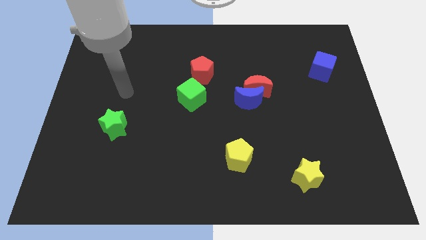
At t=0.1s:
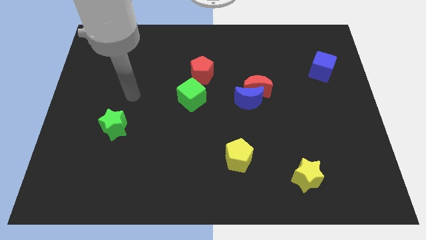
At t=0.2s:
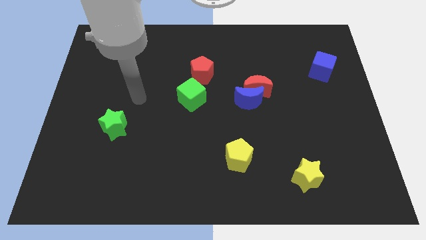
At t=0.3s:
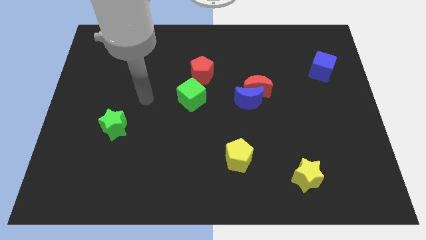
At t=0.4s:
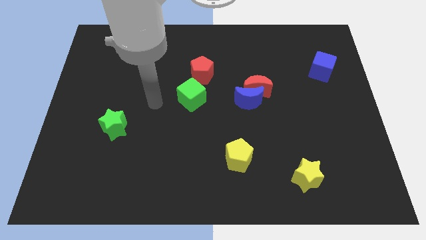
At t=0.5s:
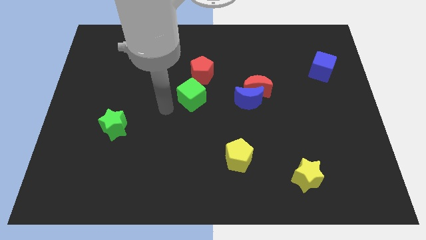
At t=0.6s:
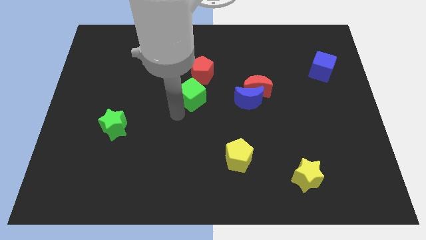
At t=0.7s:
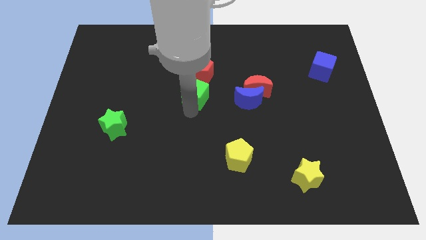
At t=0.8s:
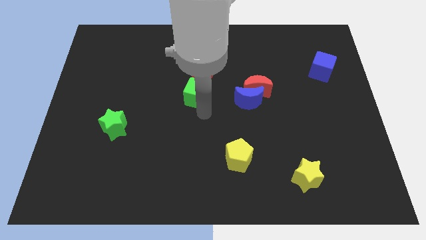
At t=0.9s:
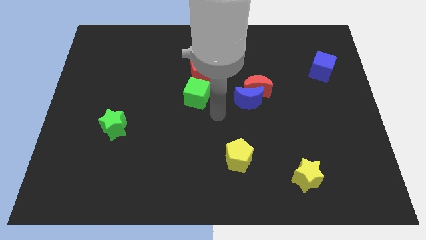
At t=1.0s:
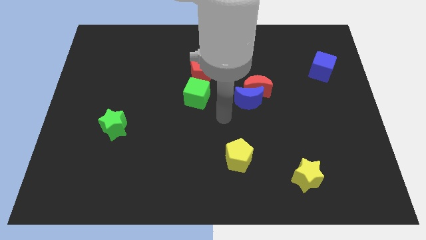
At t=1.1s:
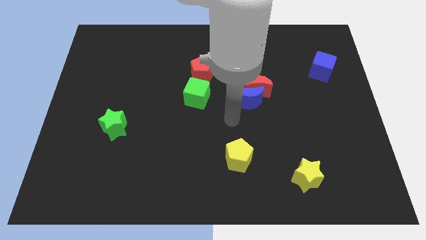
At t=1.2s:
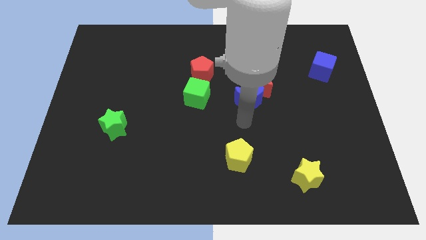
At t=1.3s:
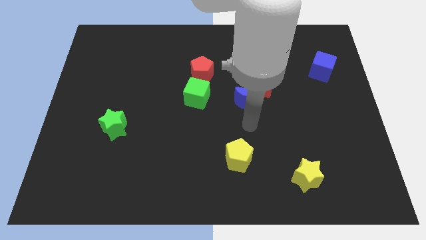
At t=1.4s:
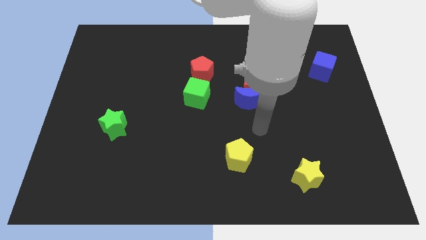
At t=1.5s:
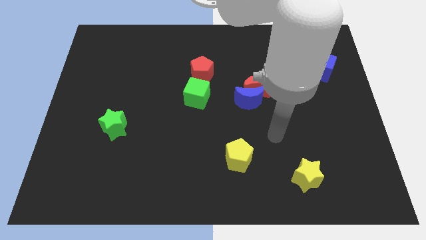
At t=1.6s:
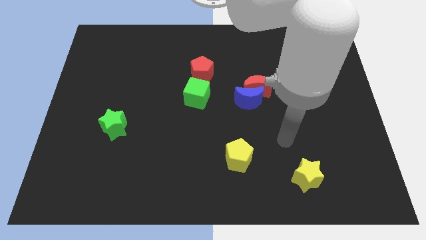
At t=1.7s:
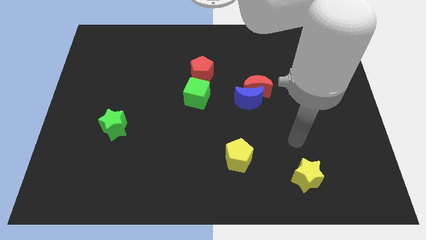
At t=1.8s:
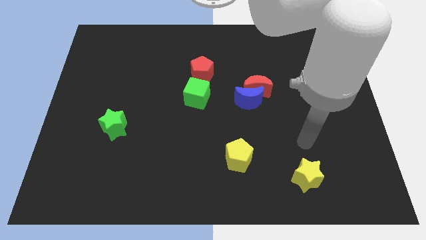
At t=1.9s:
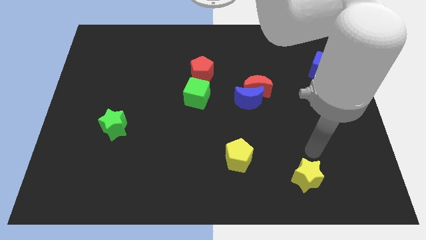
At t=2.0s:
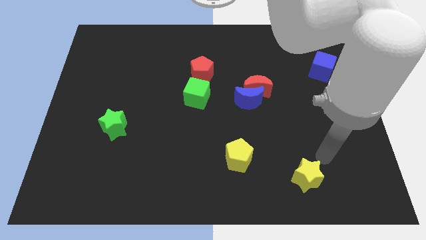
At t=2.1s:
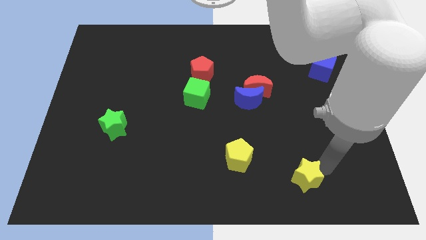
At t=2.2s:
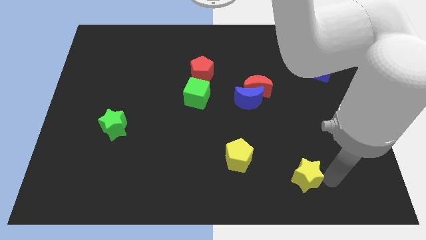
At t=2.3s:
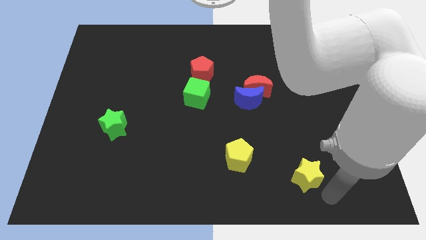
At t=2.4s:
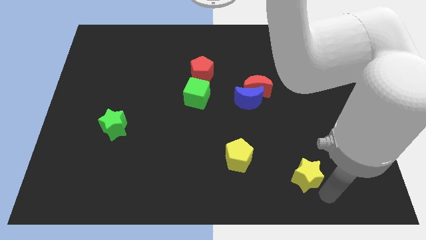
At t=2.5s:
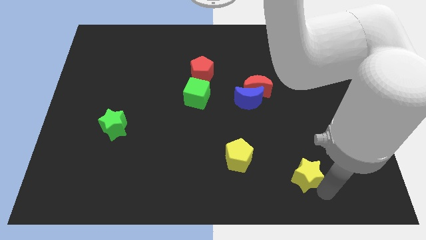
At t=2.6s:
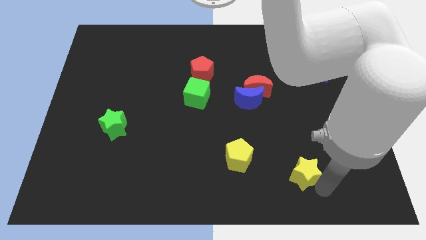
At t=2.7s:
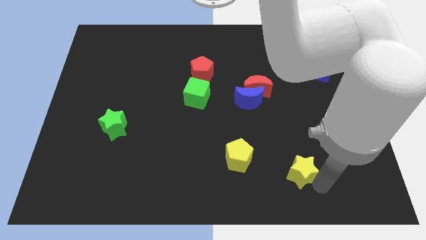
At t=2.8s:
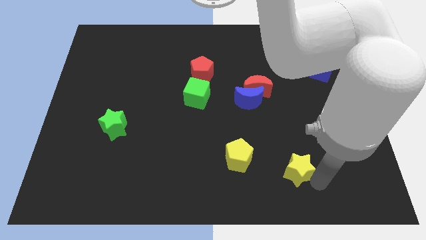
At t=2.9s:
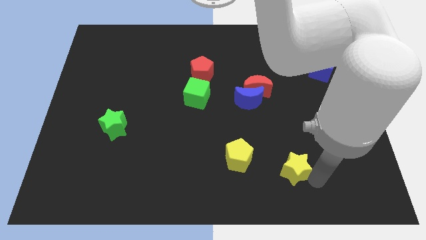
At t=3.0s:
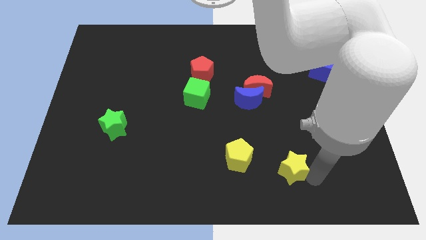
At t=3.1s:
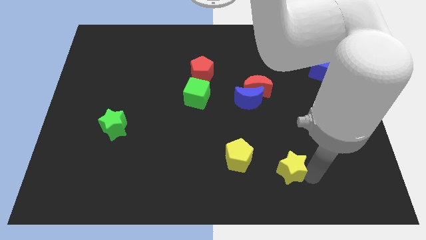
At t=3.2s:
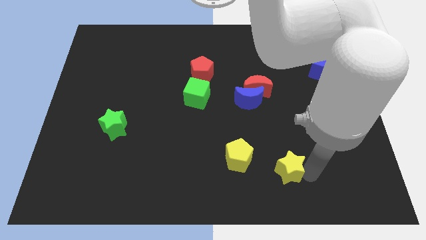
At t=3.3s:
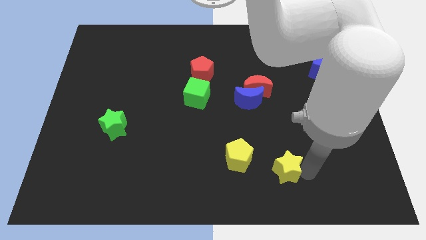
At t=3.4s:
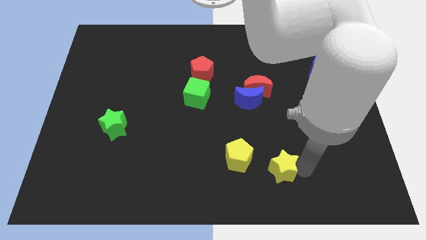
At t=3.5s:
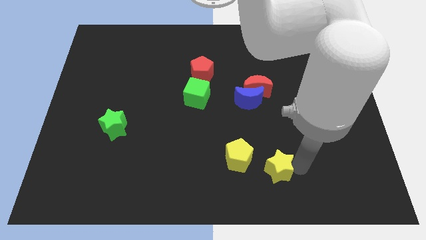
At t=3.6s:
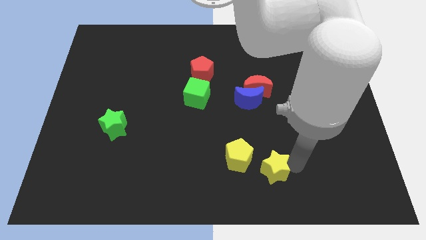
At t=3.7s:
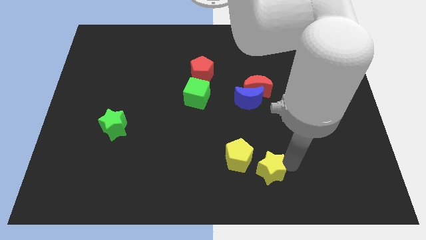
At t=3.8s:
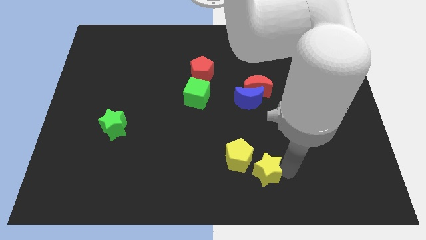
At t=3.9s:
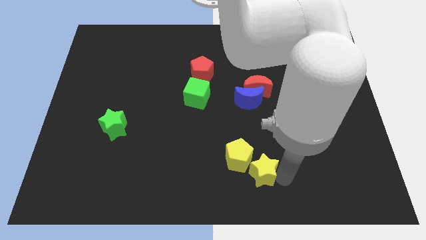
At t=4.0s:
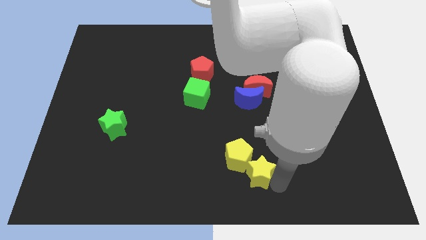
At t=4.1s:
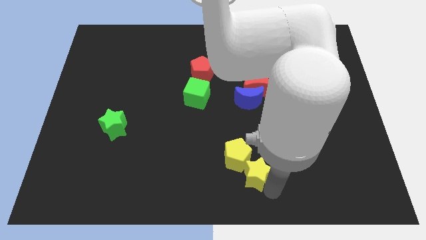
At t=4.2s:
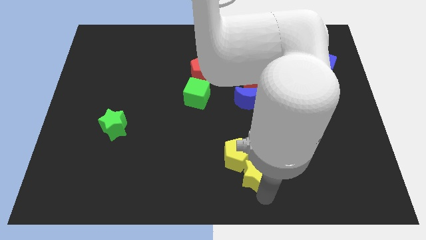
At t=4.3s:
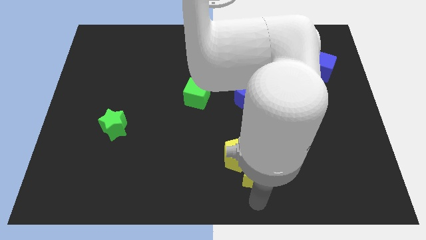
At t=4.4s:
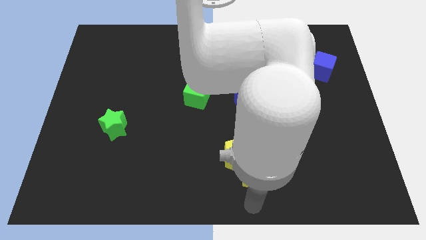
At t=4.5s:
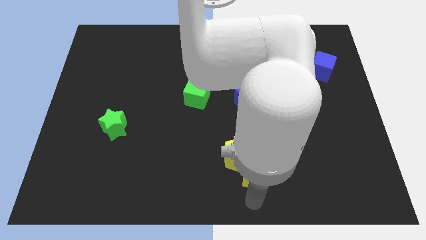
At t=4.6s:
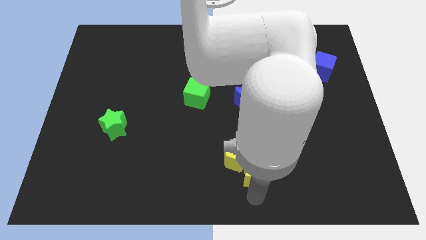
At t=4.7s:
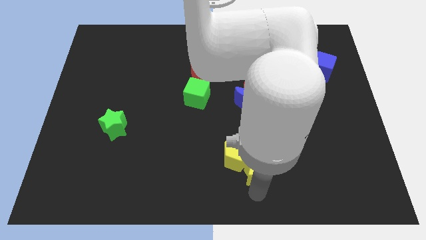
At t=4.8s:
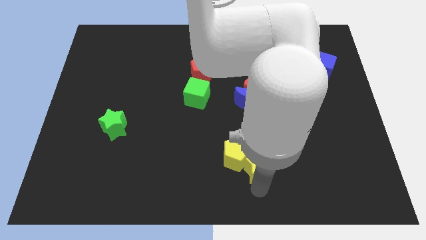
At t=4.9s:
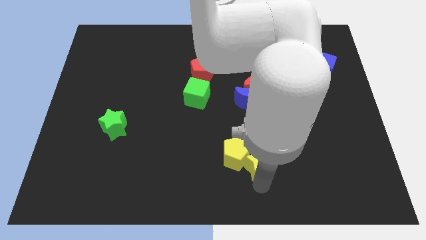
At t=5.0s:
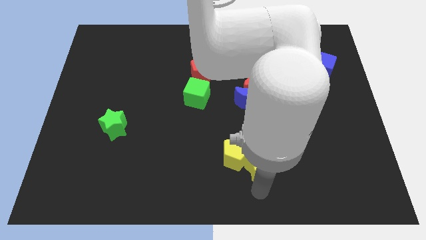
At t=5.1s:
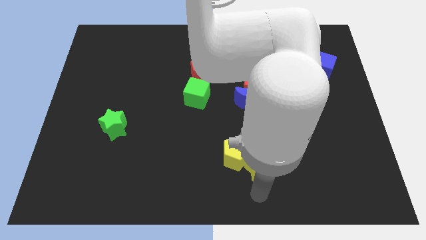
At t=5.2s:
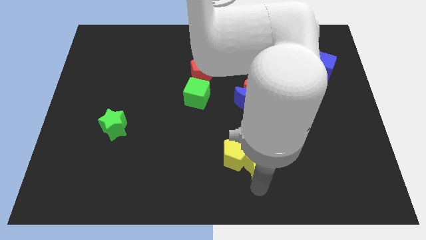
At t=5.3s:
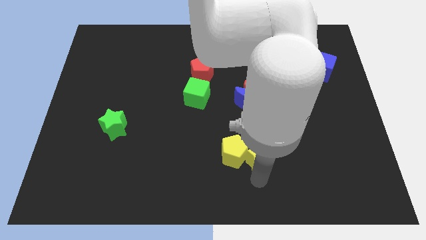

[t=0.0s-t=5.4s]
push the yellow star to the top right side of the yellow pentagon

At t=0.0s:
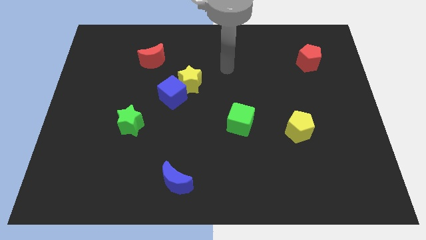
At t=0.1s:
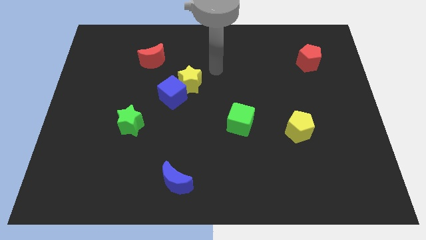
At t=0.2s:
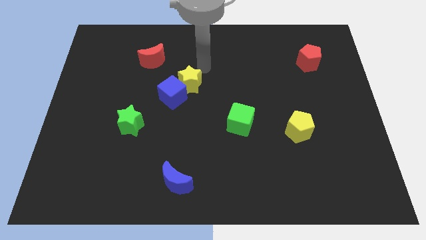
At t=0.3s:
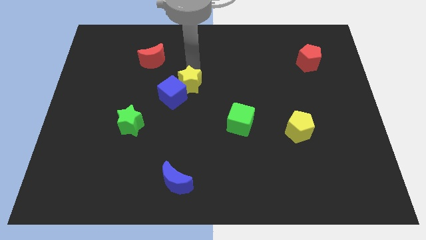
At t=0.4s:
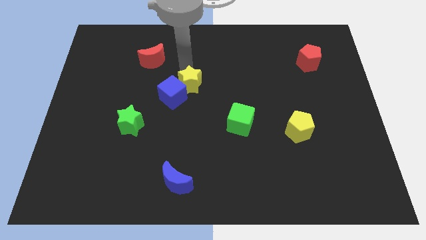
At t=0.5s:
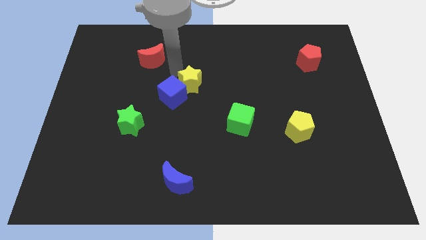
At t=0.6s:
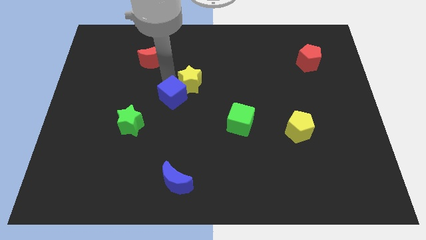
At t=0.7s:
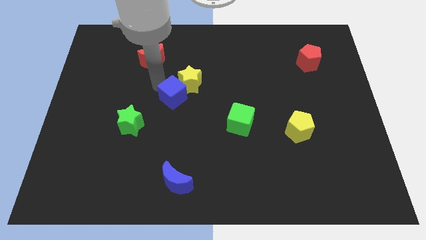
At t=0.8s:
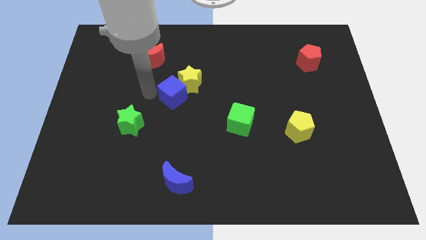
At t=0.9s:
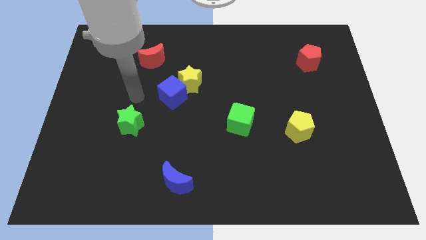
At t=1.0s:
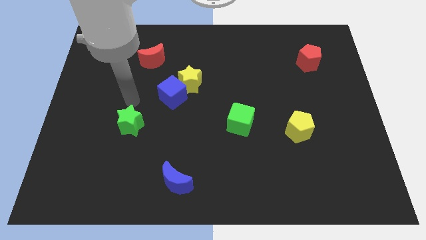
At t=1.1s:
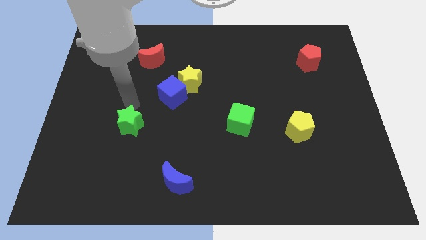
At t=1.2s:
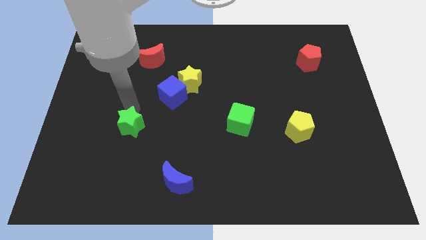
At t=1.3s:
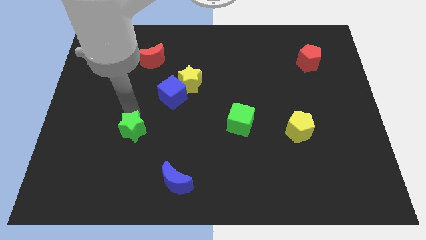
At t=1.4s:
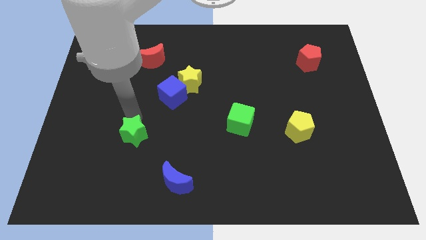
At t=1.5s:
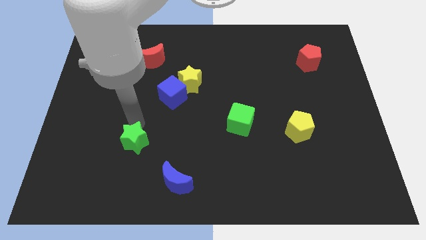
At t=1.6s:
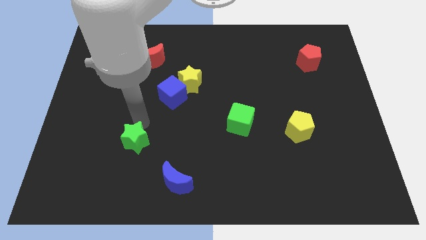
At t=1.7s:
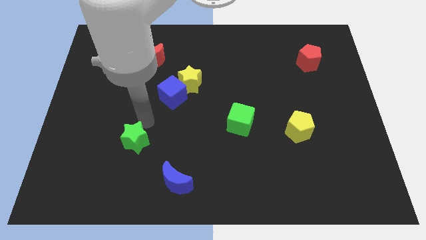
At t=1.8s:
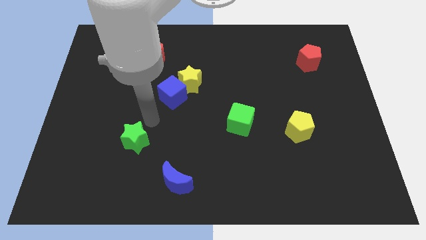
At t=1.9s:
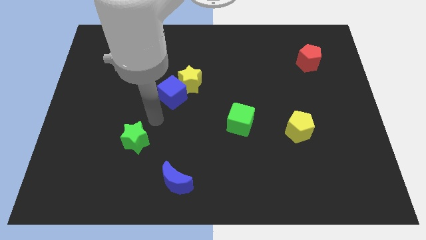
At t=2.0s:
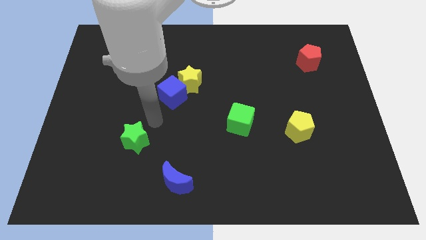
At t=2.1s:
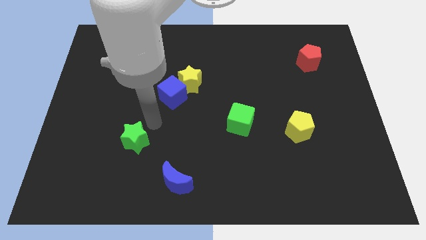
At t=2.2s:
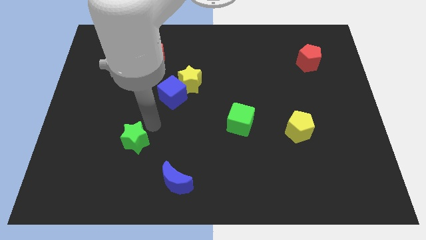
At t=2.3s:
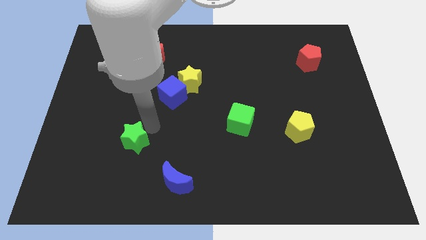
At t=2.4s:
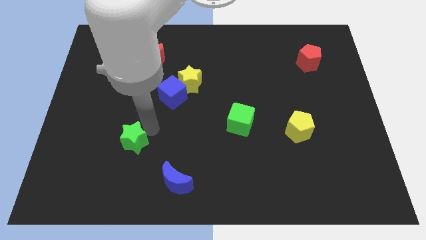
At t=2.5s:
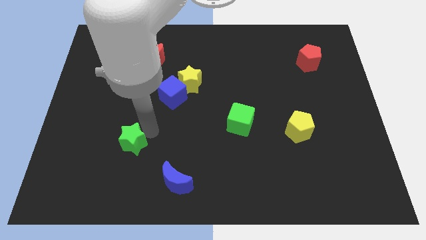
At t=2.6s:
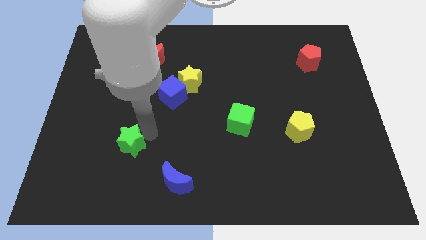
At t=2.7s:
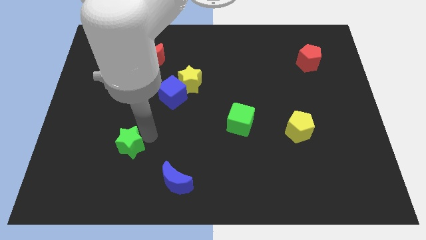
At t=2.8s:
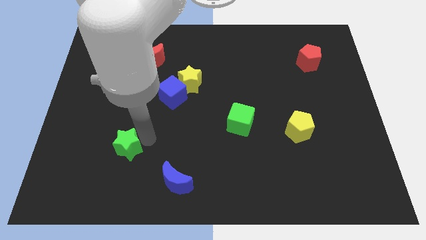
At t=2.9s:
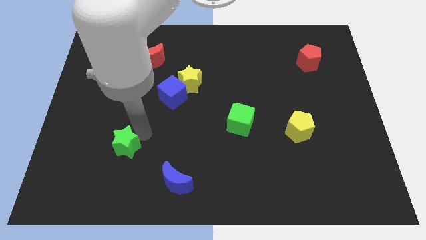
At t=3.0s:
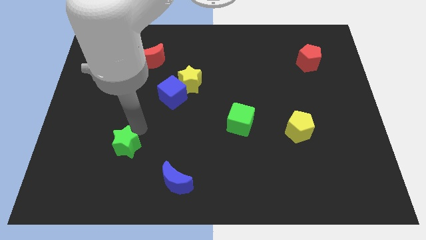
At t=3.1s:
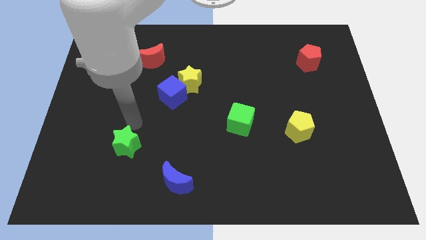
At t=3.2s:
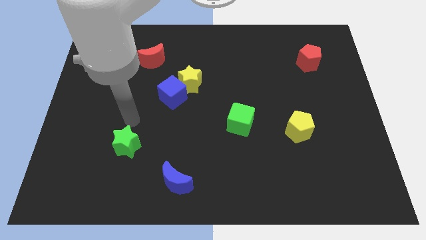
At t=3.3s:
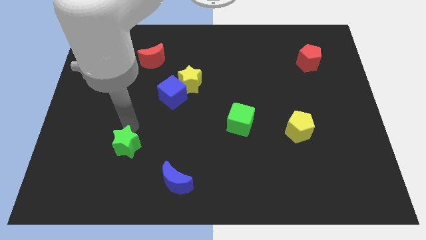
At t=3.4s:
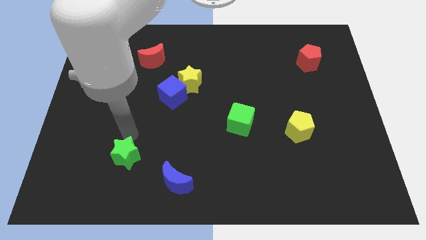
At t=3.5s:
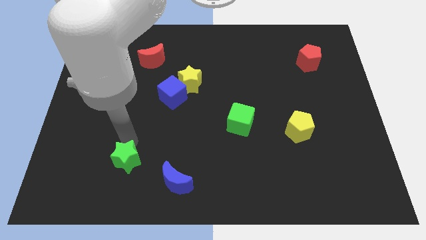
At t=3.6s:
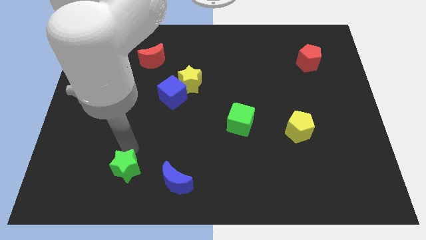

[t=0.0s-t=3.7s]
slide the green star left of the blue moon
